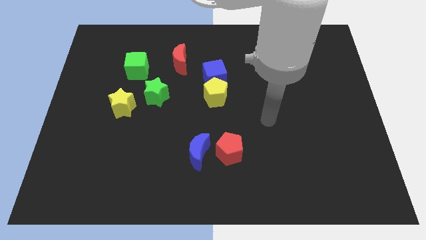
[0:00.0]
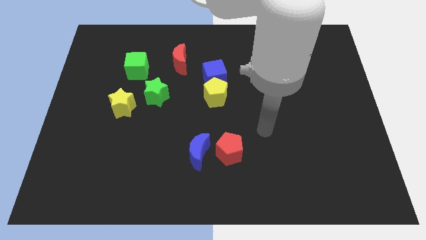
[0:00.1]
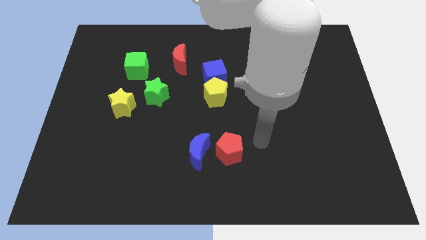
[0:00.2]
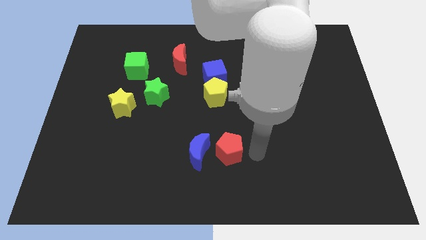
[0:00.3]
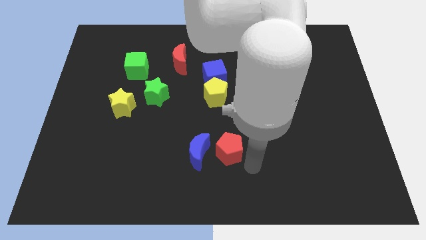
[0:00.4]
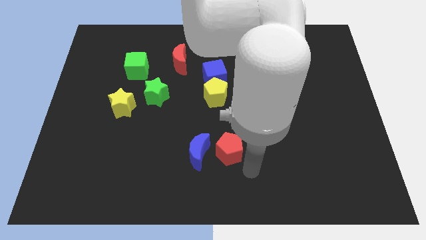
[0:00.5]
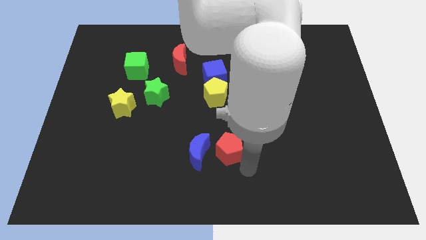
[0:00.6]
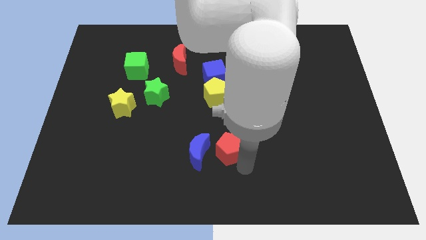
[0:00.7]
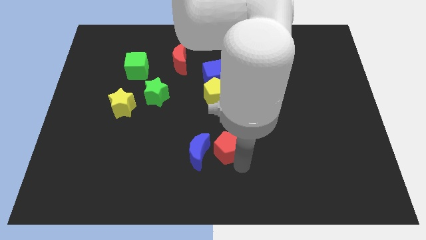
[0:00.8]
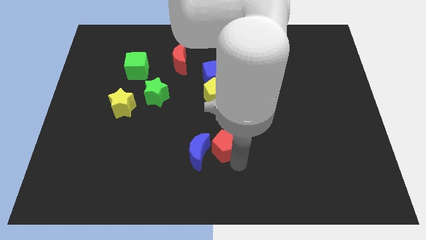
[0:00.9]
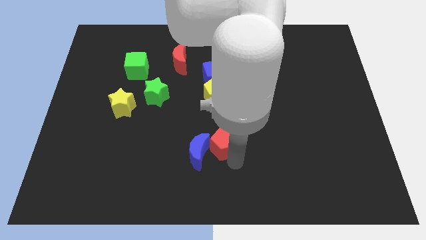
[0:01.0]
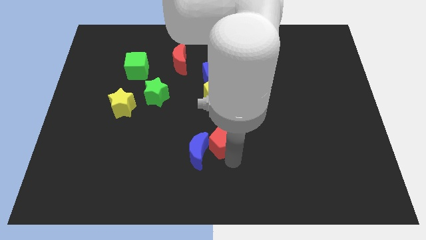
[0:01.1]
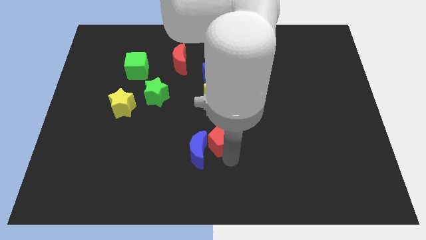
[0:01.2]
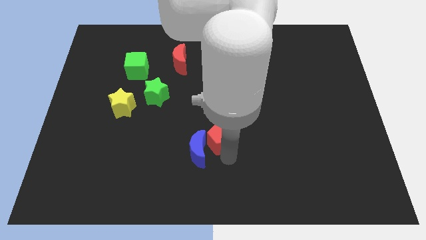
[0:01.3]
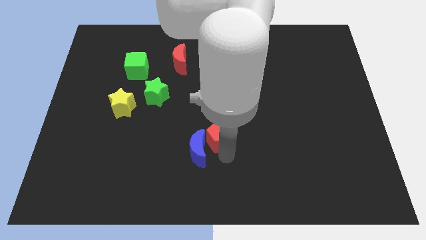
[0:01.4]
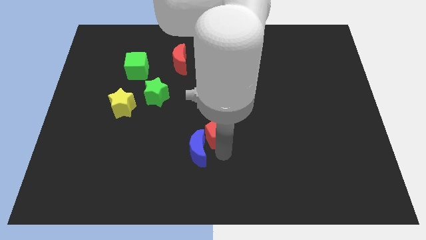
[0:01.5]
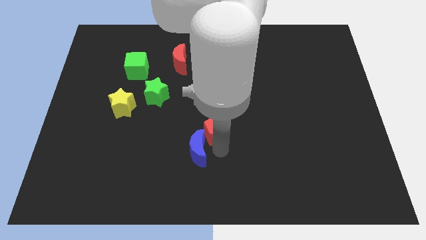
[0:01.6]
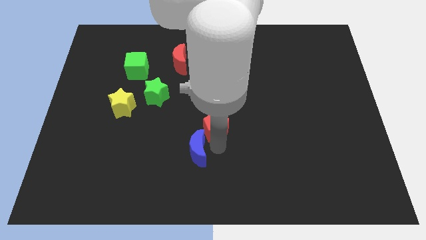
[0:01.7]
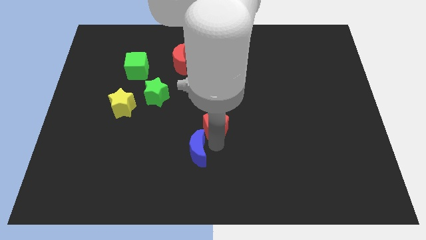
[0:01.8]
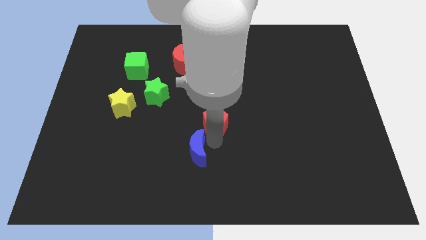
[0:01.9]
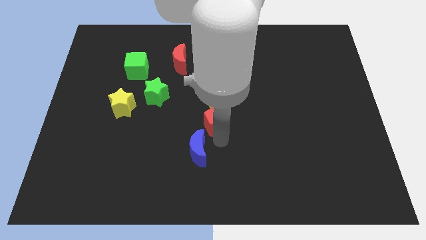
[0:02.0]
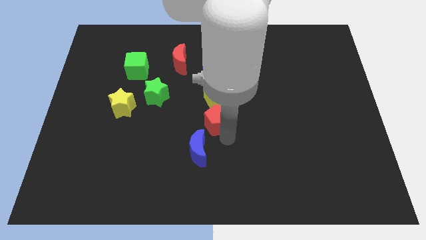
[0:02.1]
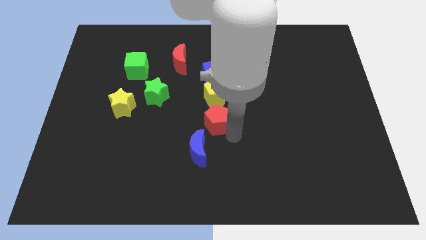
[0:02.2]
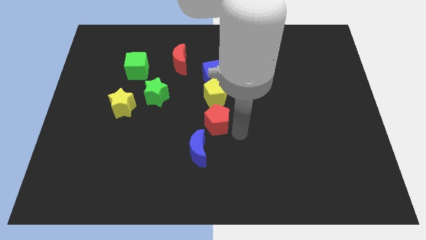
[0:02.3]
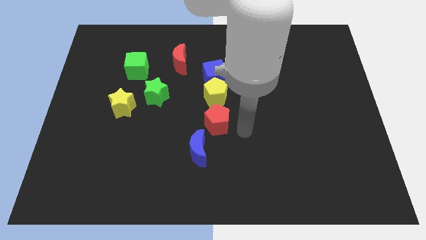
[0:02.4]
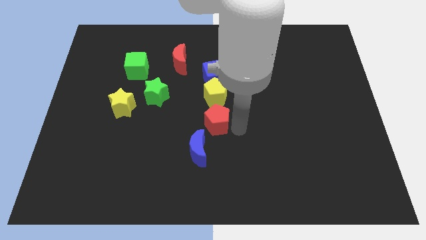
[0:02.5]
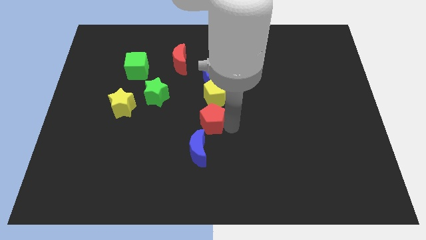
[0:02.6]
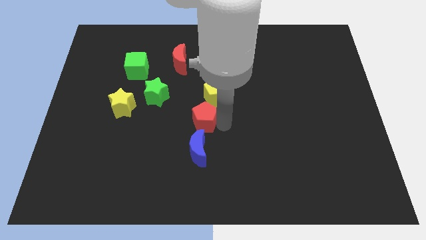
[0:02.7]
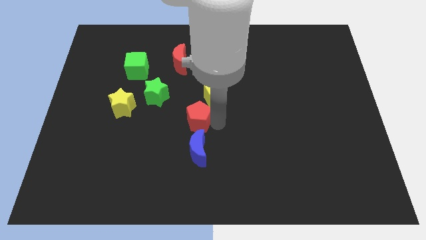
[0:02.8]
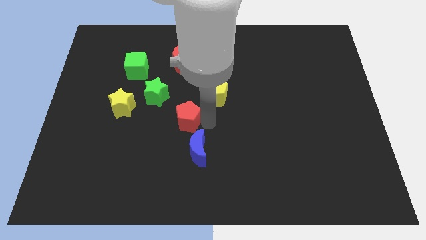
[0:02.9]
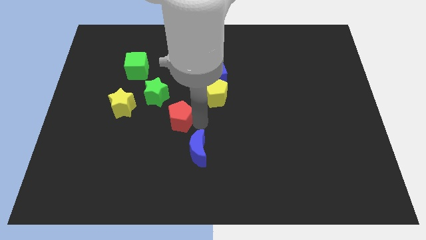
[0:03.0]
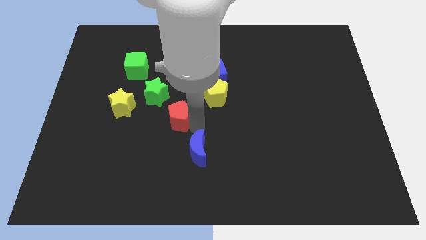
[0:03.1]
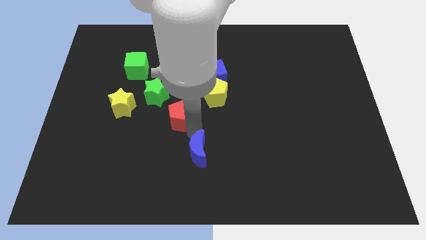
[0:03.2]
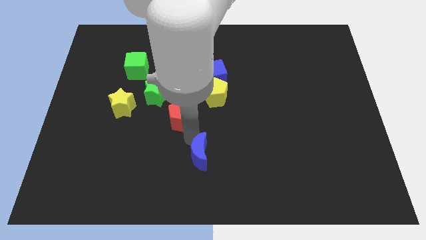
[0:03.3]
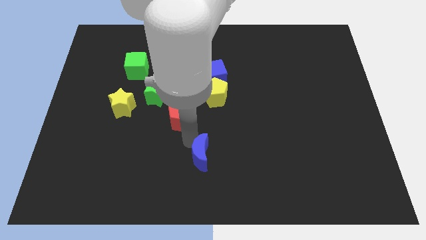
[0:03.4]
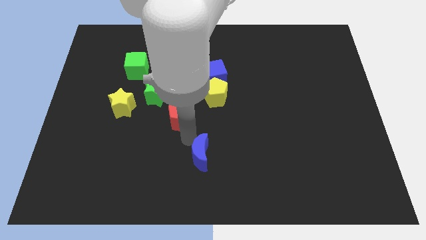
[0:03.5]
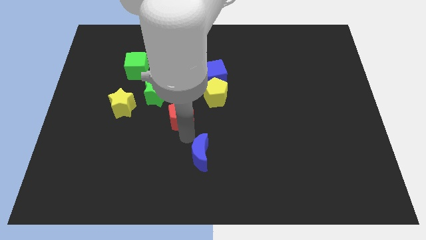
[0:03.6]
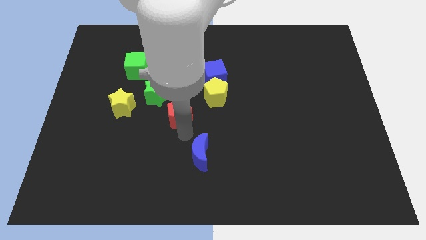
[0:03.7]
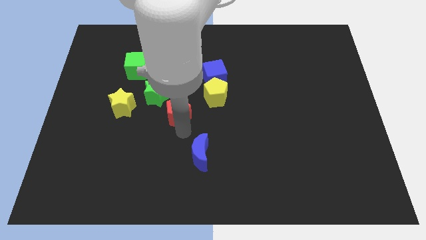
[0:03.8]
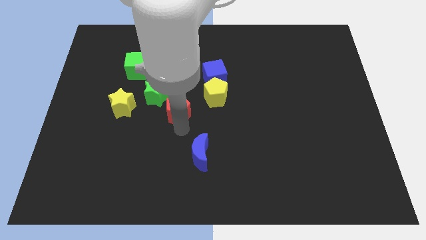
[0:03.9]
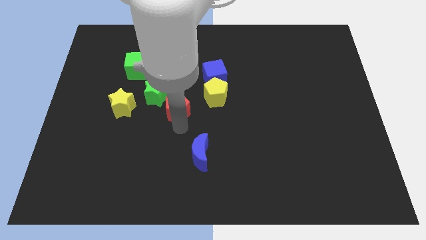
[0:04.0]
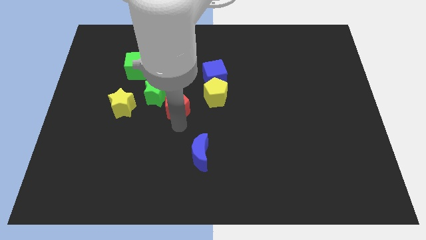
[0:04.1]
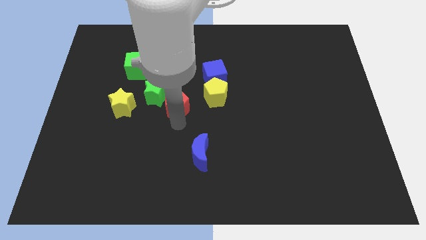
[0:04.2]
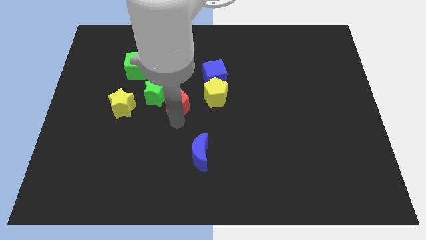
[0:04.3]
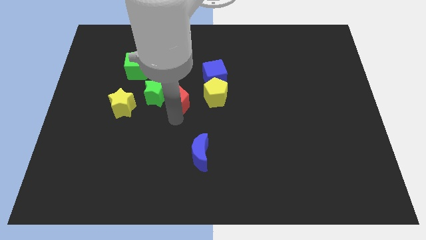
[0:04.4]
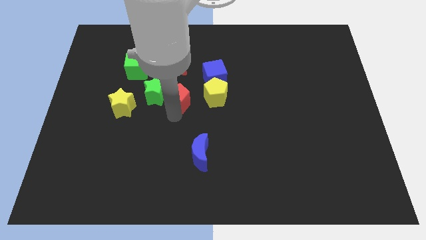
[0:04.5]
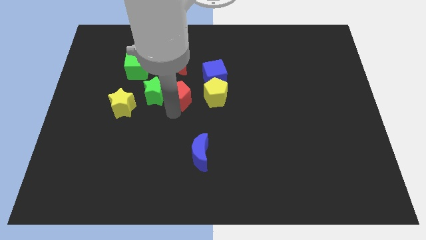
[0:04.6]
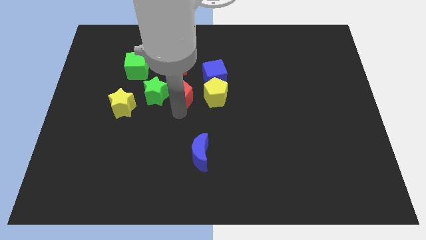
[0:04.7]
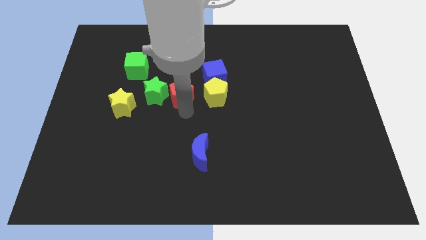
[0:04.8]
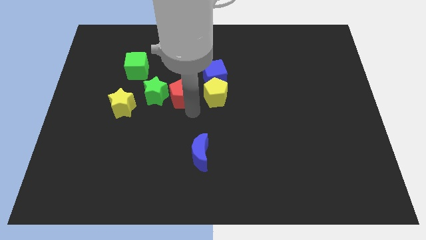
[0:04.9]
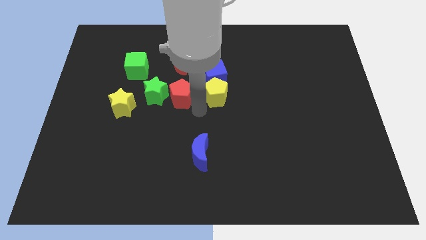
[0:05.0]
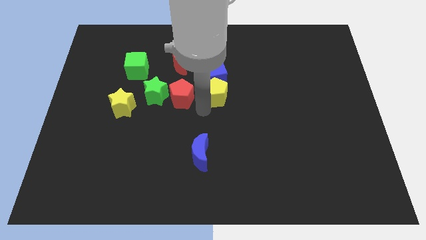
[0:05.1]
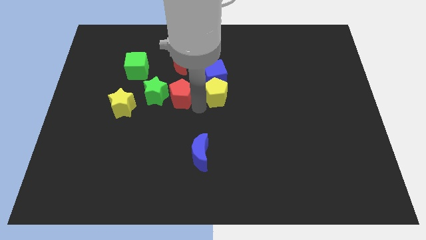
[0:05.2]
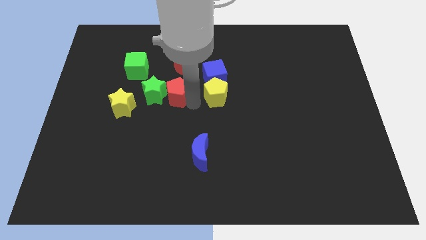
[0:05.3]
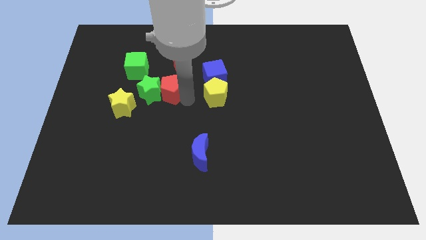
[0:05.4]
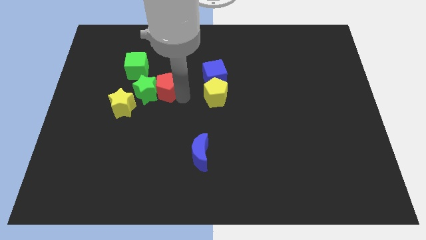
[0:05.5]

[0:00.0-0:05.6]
put the red pentagon diagonally up and to the right of the yellow star

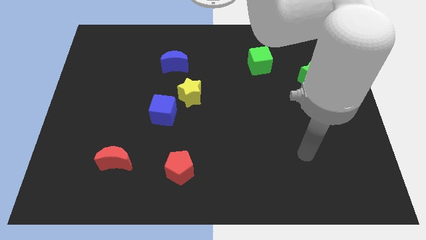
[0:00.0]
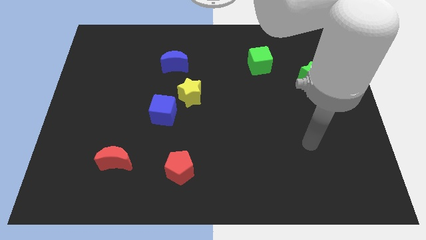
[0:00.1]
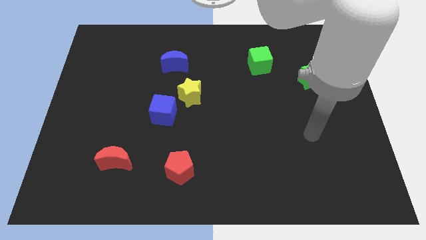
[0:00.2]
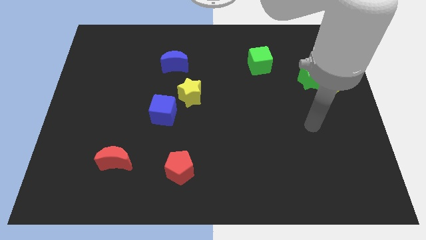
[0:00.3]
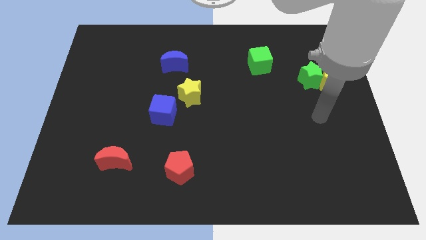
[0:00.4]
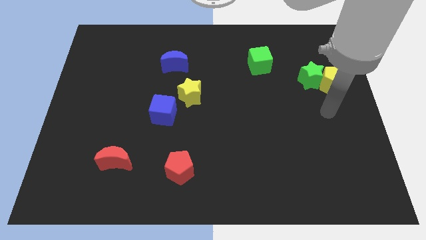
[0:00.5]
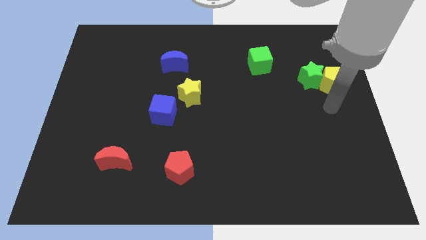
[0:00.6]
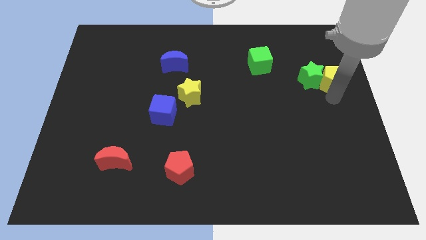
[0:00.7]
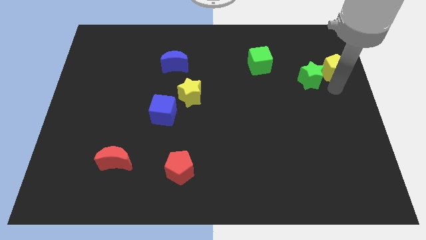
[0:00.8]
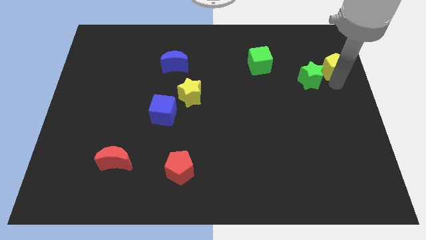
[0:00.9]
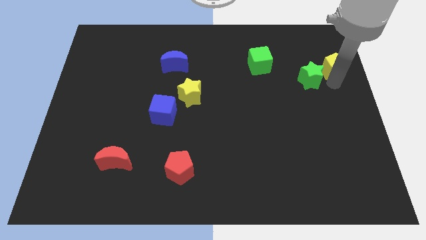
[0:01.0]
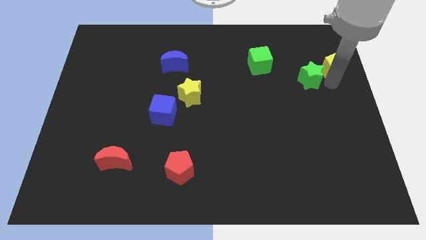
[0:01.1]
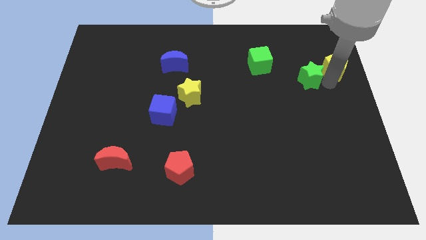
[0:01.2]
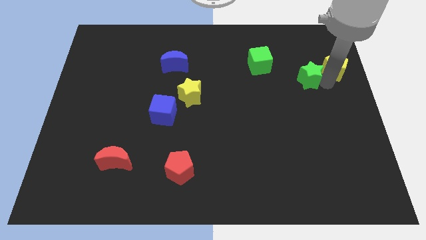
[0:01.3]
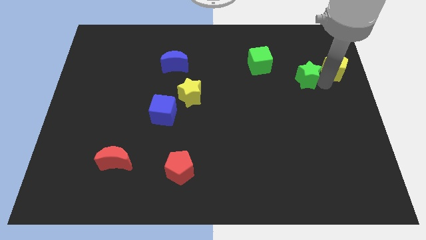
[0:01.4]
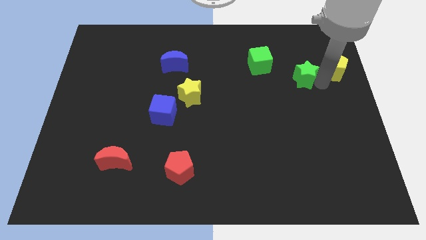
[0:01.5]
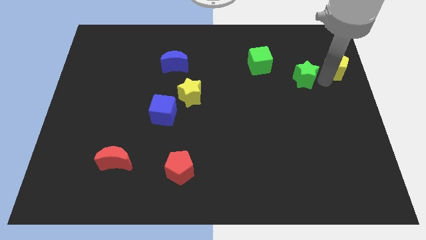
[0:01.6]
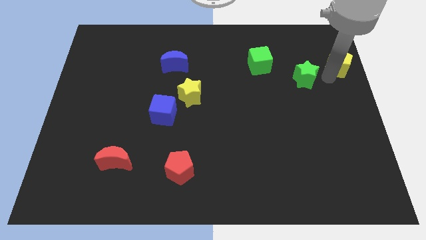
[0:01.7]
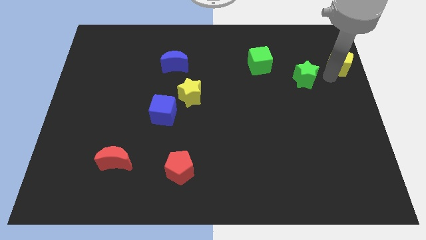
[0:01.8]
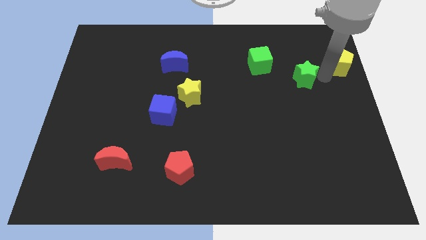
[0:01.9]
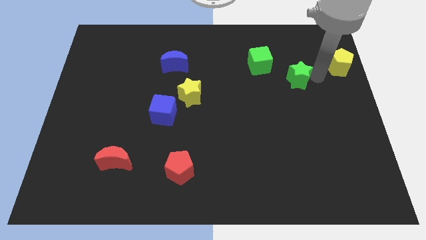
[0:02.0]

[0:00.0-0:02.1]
slide the green star to the bottom right of the green cube

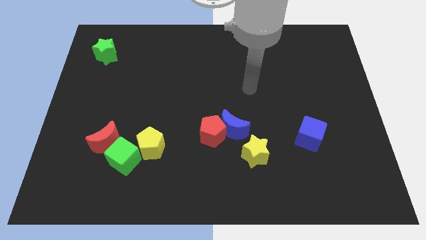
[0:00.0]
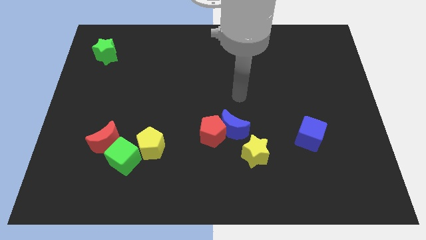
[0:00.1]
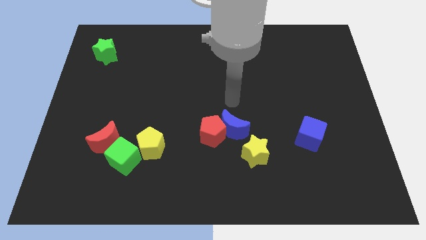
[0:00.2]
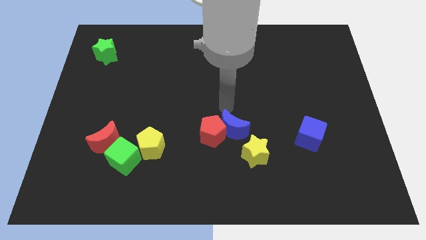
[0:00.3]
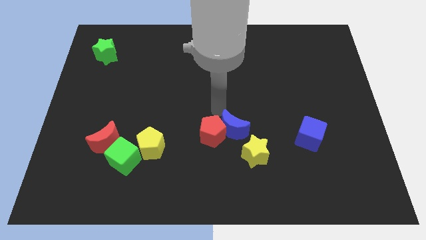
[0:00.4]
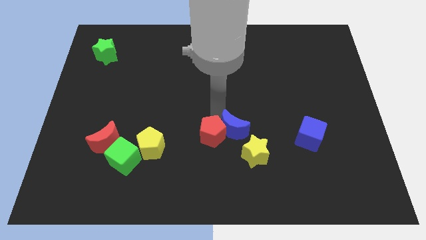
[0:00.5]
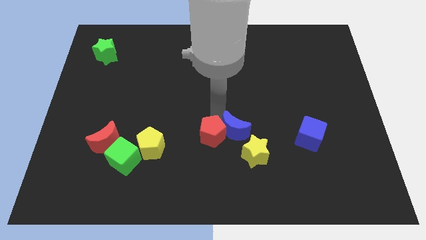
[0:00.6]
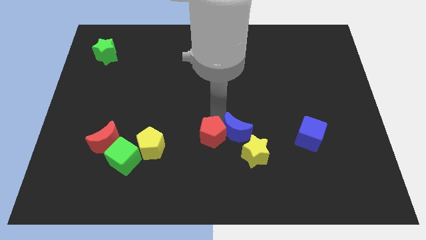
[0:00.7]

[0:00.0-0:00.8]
push the red pentagon left of the yellow star
